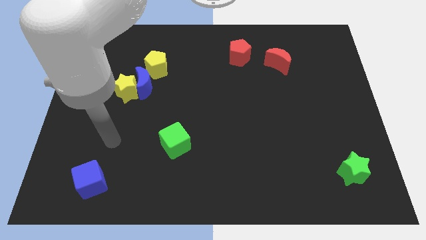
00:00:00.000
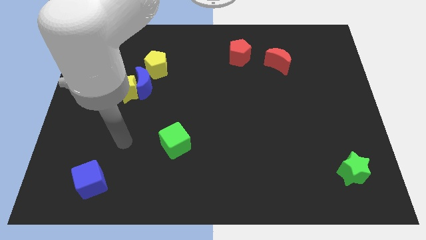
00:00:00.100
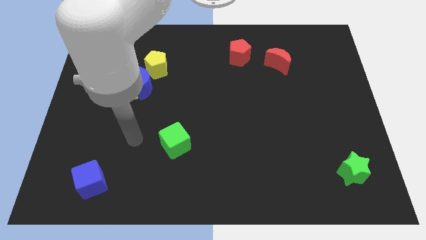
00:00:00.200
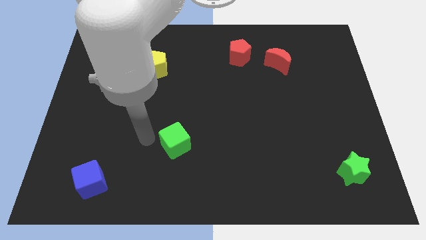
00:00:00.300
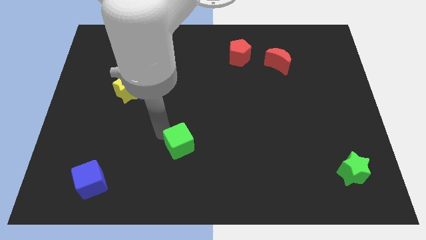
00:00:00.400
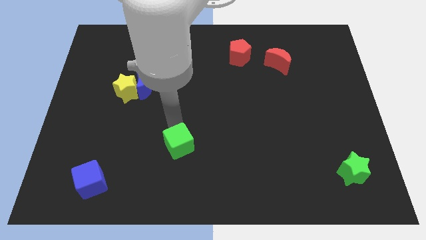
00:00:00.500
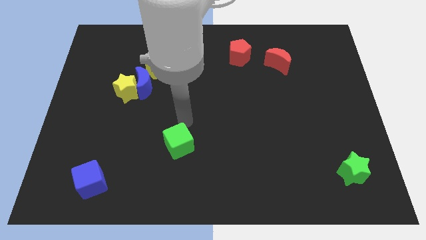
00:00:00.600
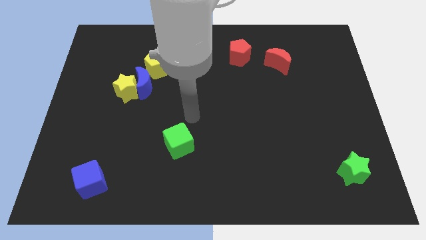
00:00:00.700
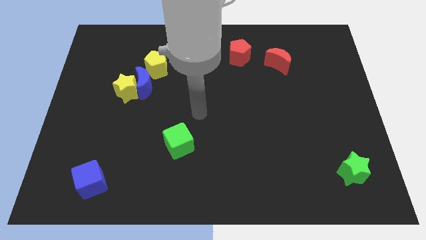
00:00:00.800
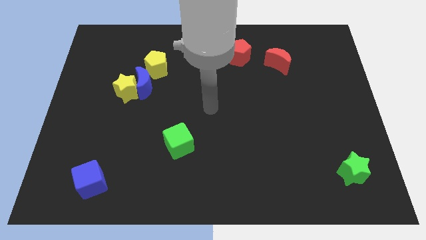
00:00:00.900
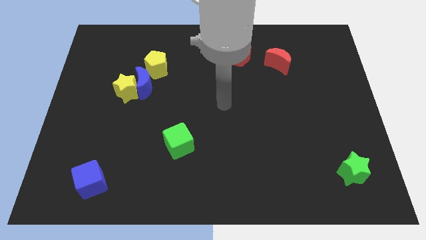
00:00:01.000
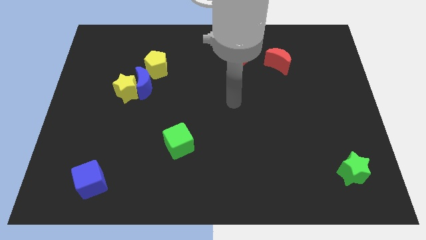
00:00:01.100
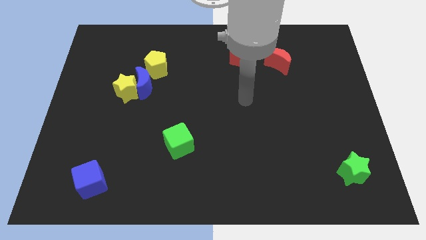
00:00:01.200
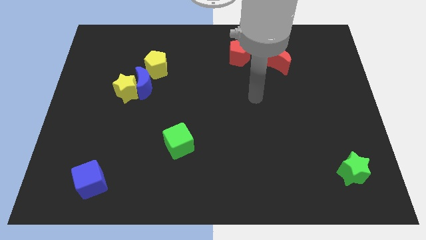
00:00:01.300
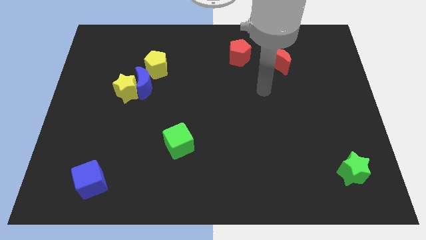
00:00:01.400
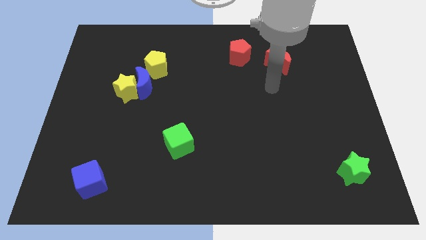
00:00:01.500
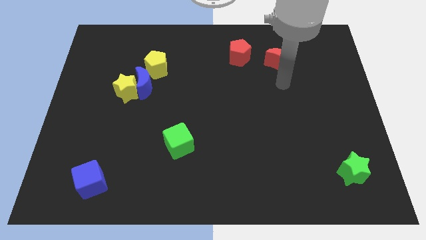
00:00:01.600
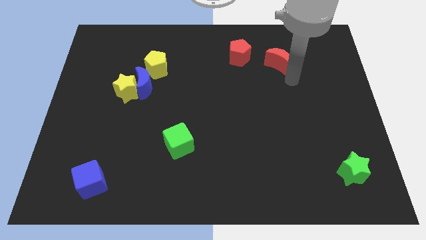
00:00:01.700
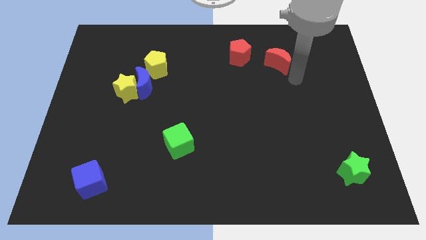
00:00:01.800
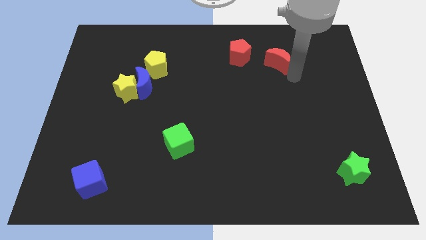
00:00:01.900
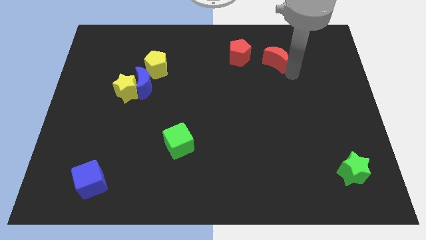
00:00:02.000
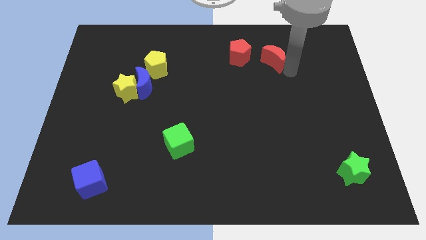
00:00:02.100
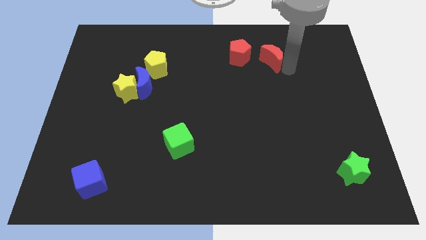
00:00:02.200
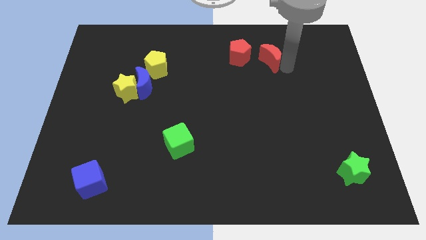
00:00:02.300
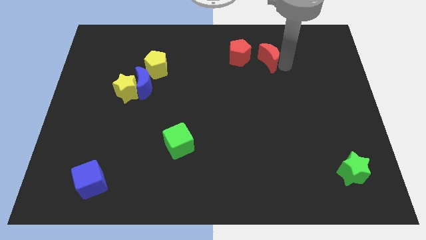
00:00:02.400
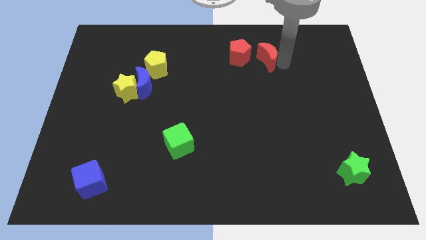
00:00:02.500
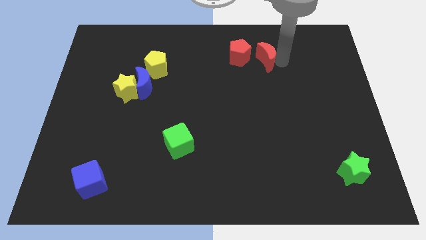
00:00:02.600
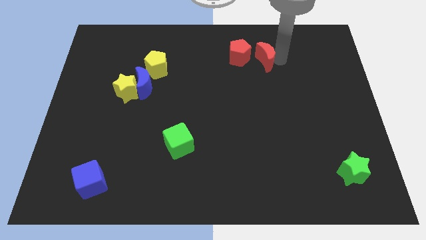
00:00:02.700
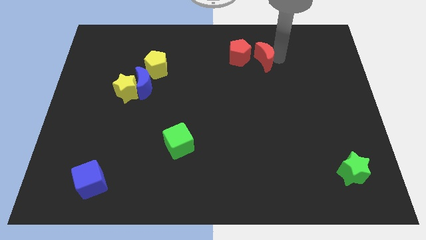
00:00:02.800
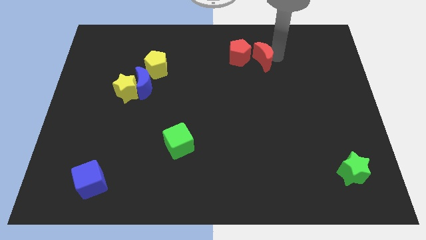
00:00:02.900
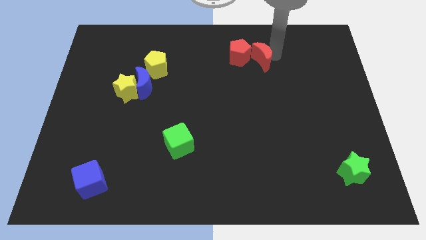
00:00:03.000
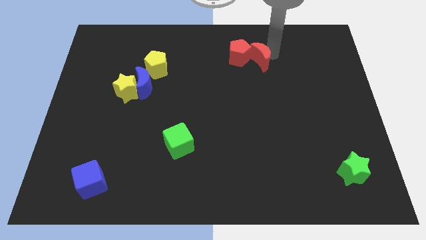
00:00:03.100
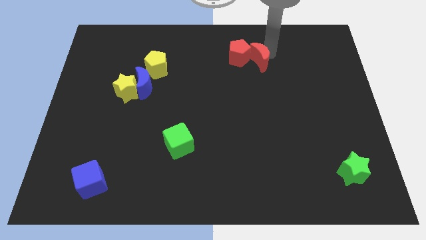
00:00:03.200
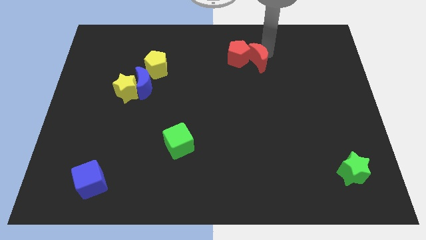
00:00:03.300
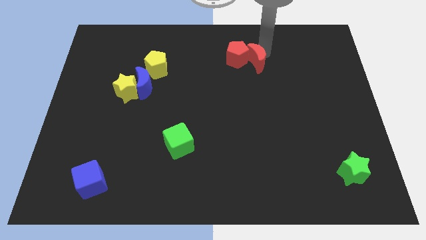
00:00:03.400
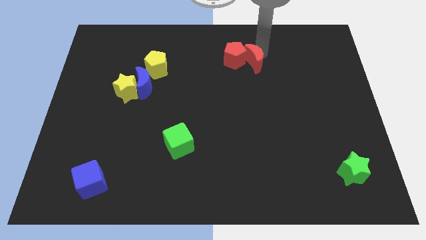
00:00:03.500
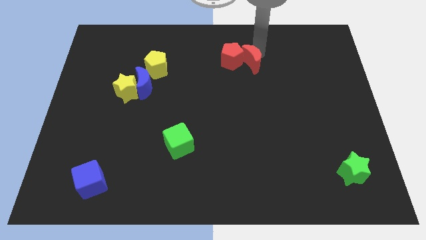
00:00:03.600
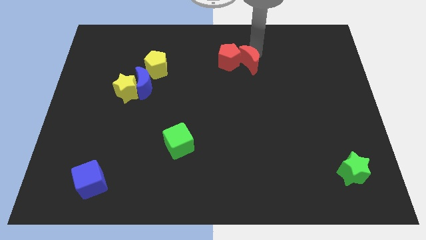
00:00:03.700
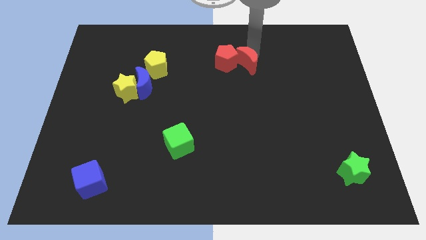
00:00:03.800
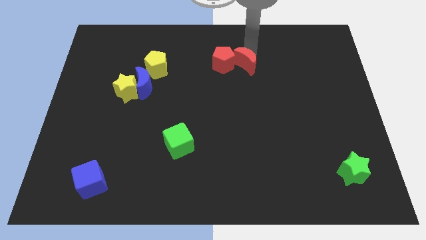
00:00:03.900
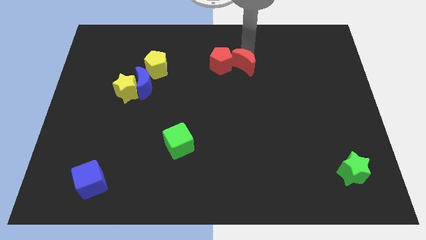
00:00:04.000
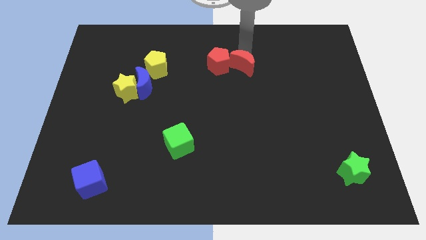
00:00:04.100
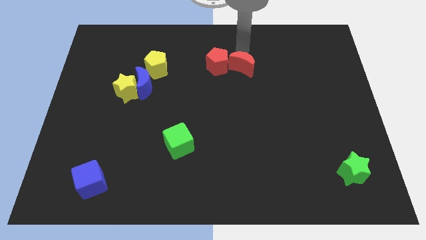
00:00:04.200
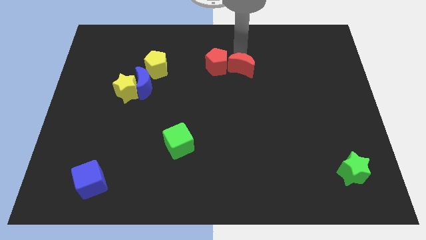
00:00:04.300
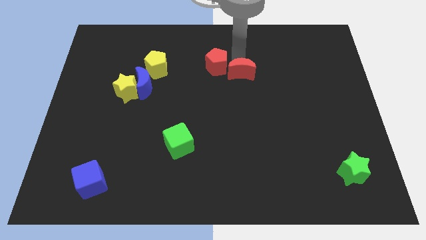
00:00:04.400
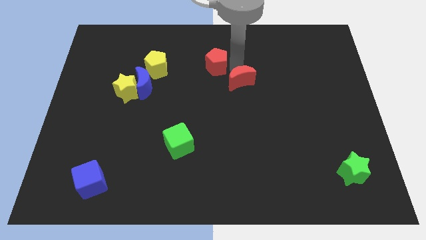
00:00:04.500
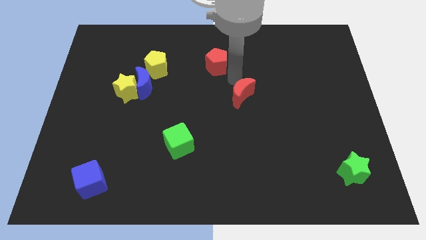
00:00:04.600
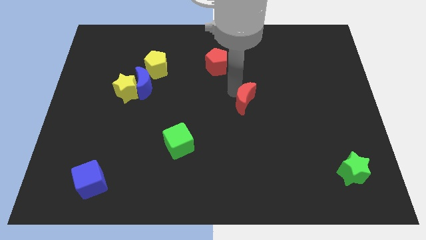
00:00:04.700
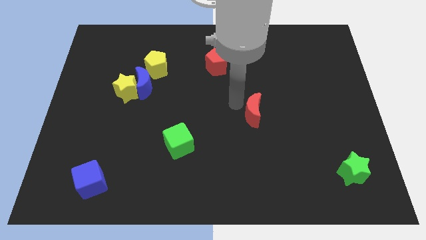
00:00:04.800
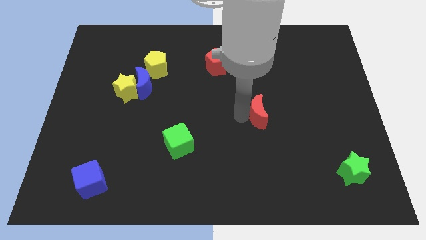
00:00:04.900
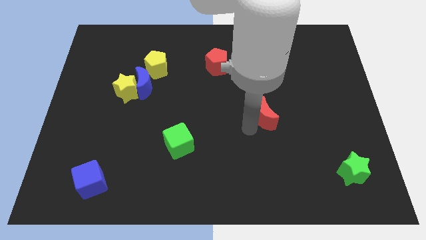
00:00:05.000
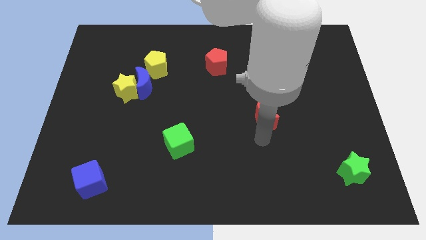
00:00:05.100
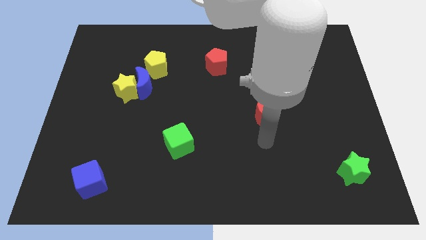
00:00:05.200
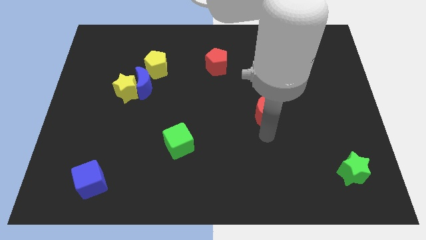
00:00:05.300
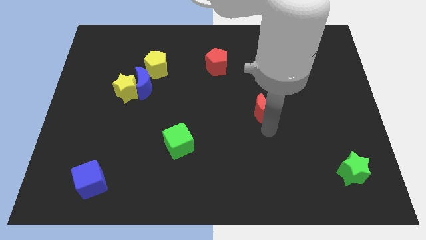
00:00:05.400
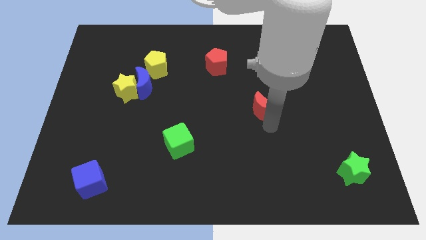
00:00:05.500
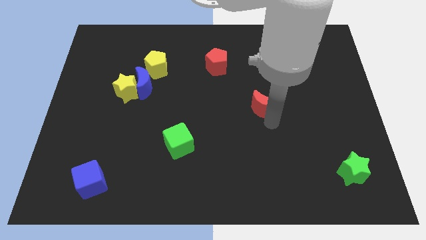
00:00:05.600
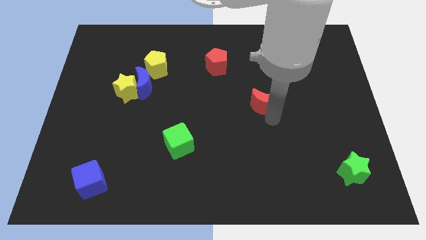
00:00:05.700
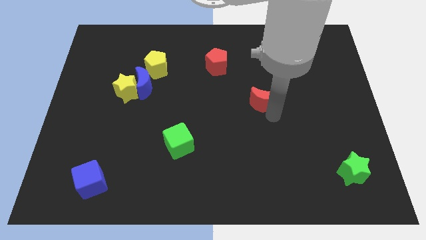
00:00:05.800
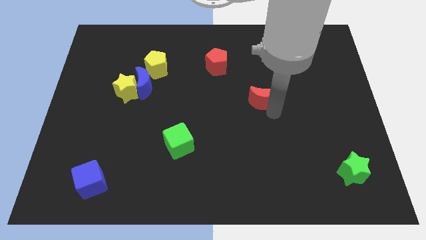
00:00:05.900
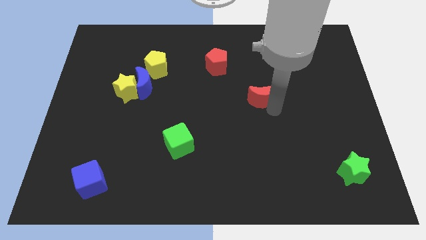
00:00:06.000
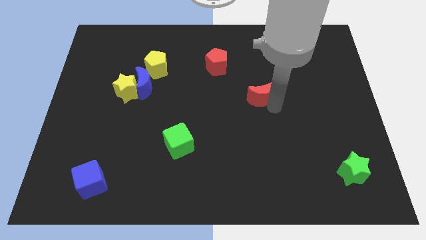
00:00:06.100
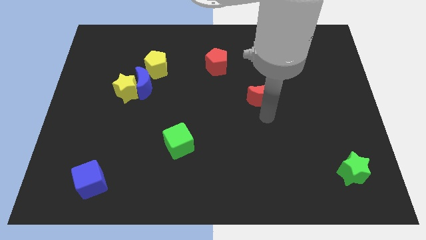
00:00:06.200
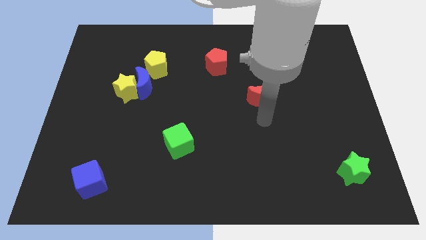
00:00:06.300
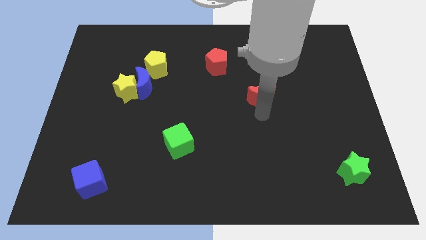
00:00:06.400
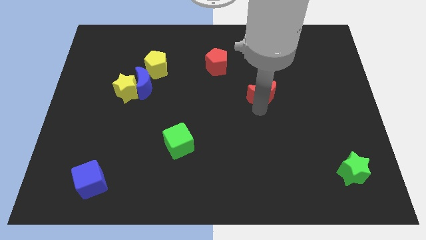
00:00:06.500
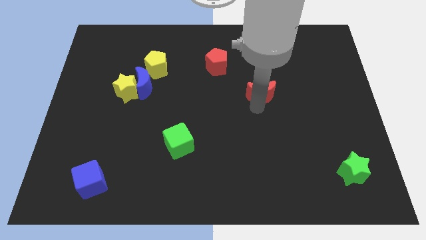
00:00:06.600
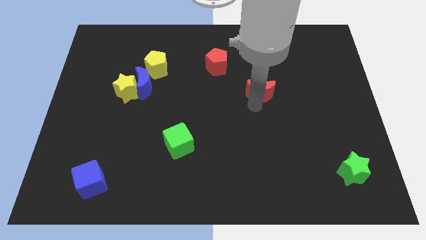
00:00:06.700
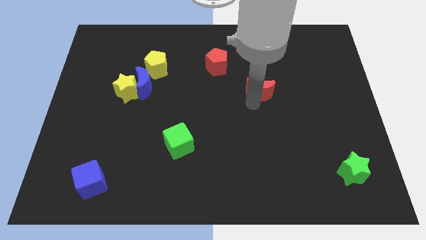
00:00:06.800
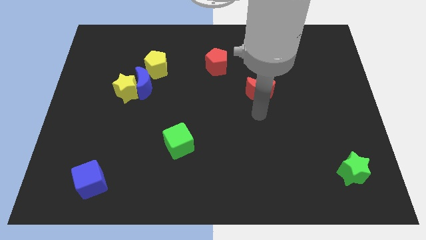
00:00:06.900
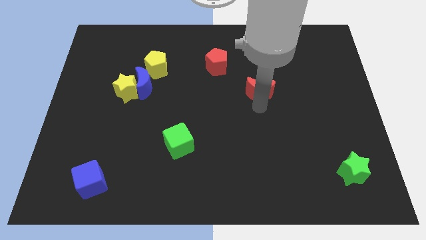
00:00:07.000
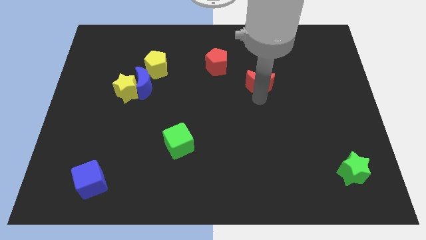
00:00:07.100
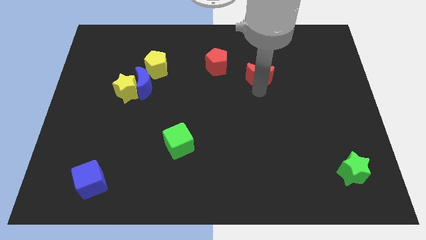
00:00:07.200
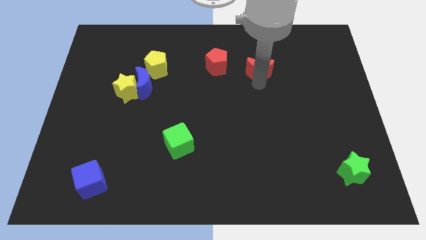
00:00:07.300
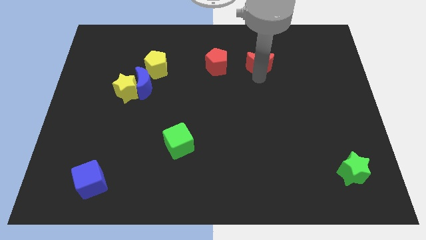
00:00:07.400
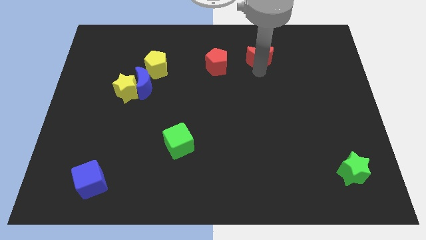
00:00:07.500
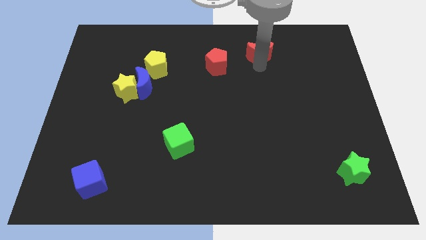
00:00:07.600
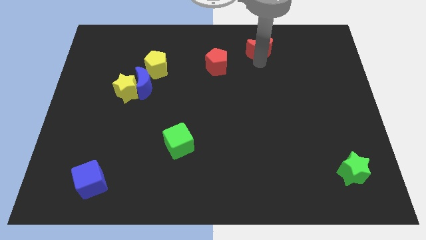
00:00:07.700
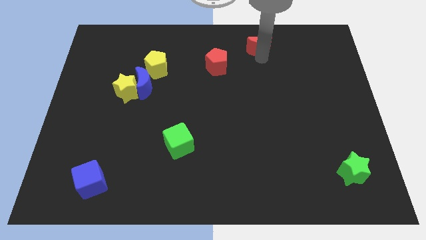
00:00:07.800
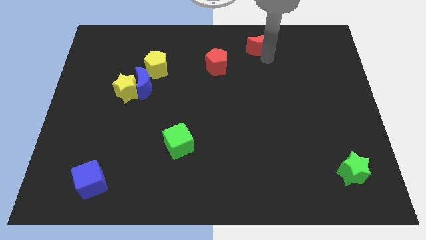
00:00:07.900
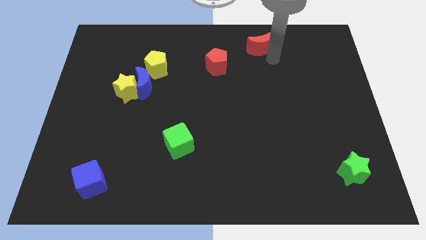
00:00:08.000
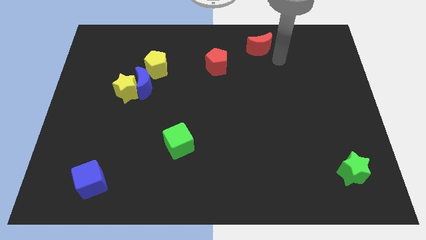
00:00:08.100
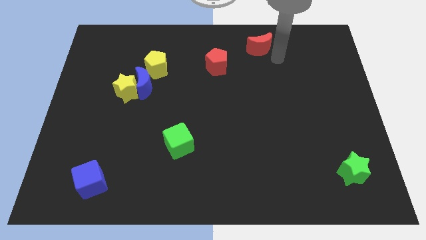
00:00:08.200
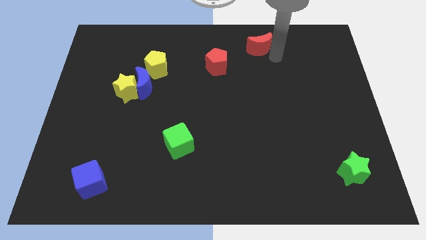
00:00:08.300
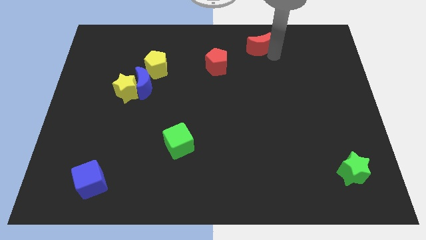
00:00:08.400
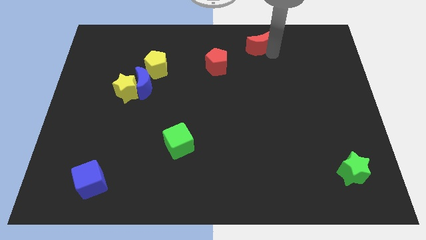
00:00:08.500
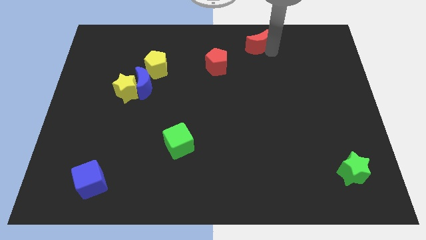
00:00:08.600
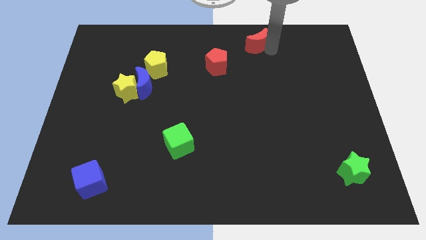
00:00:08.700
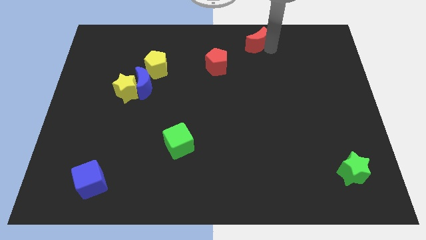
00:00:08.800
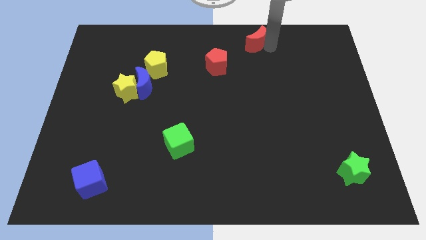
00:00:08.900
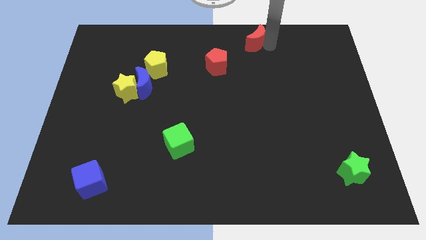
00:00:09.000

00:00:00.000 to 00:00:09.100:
put the red moon to the towards your base
